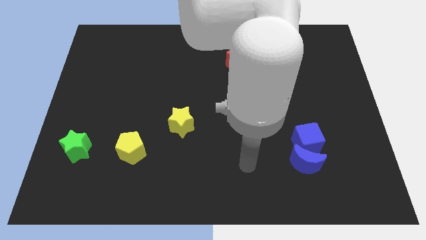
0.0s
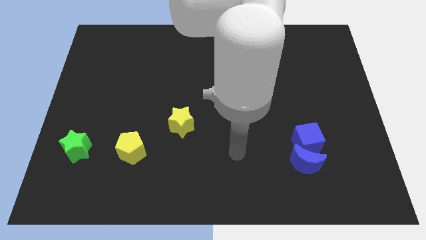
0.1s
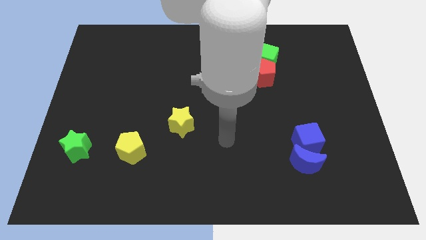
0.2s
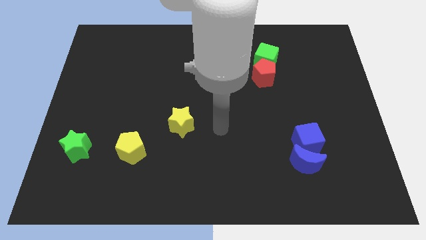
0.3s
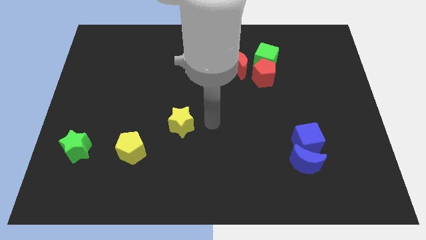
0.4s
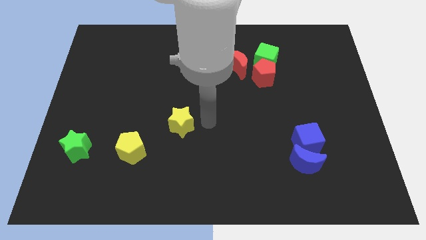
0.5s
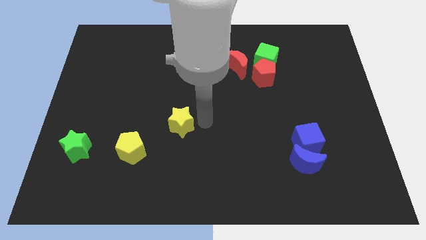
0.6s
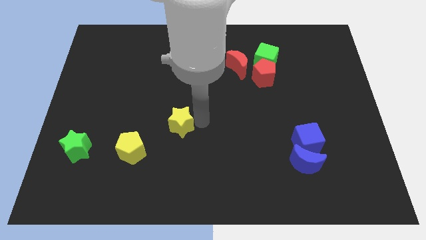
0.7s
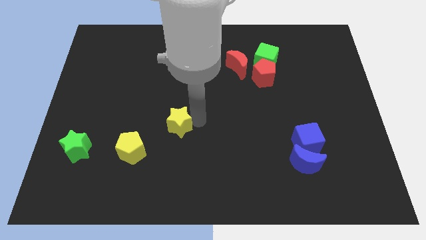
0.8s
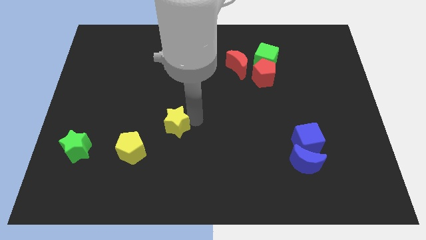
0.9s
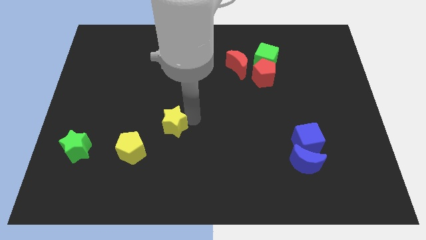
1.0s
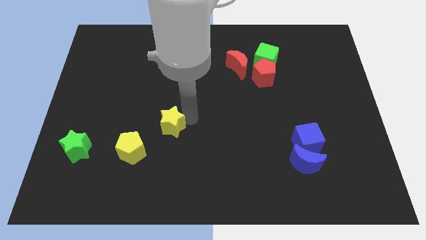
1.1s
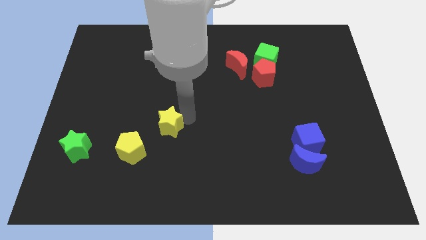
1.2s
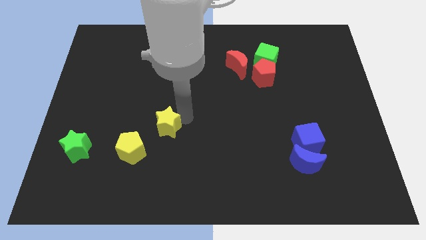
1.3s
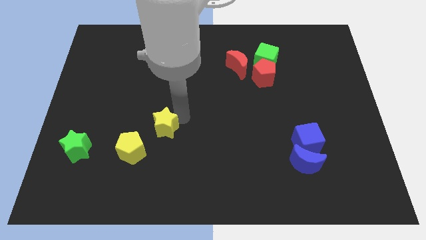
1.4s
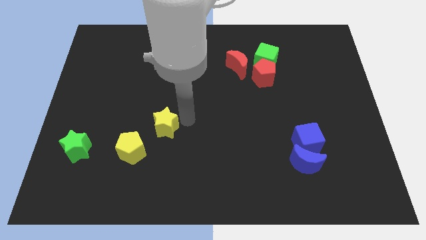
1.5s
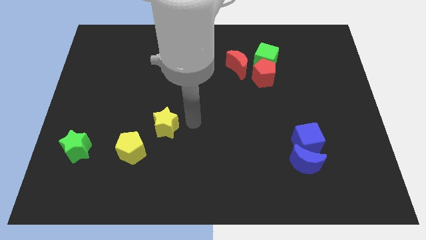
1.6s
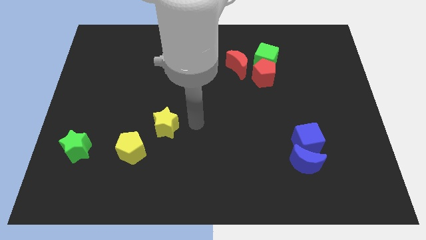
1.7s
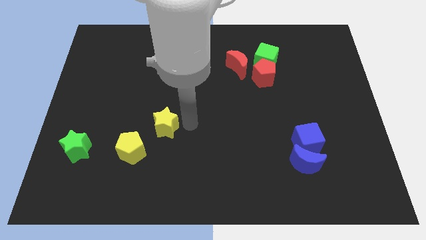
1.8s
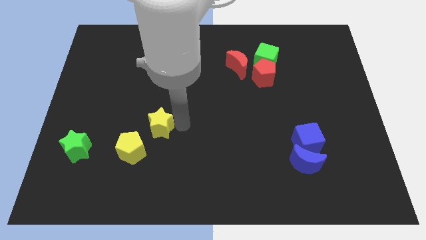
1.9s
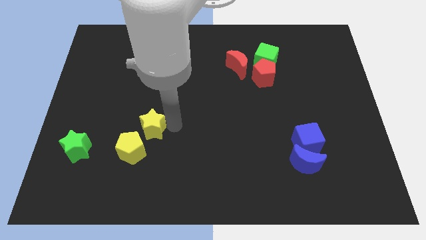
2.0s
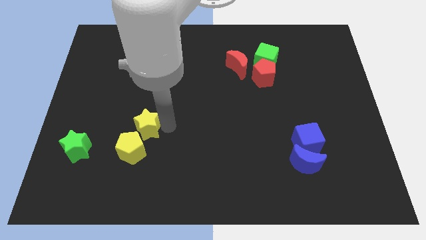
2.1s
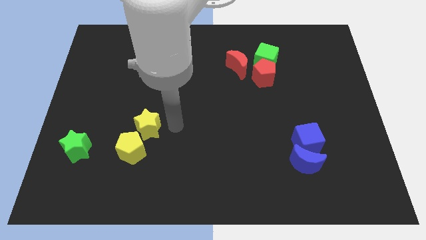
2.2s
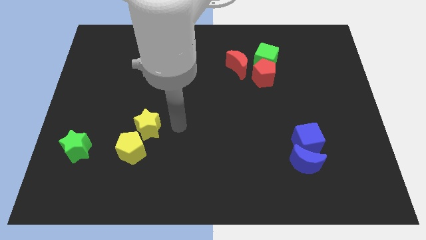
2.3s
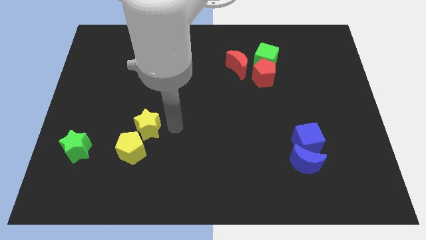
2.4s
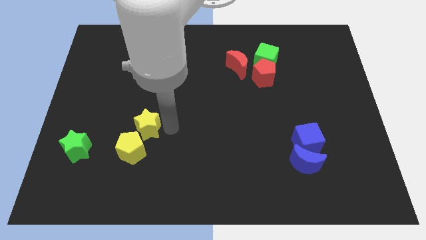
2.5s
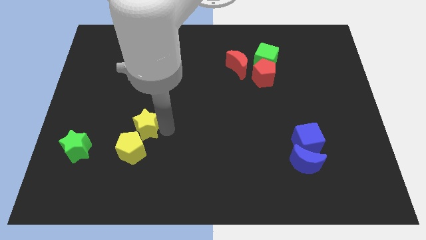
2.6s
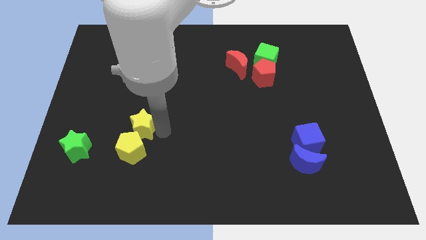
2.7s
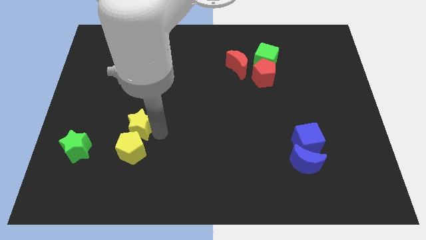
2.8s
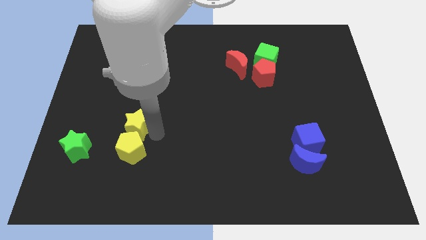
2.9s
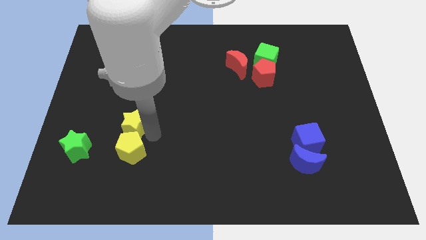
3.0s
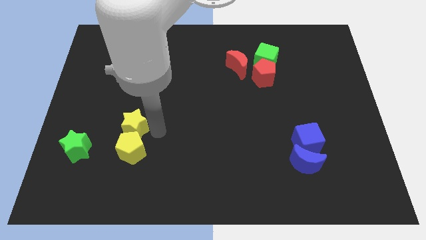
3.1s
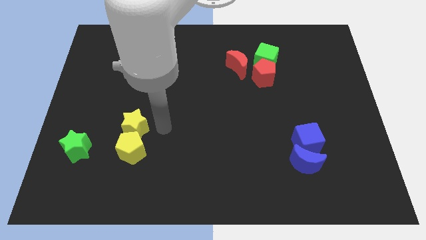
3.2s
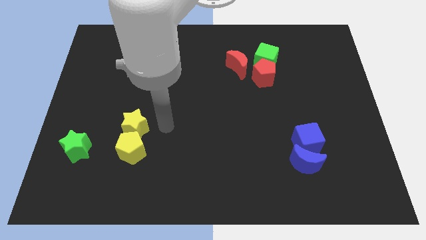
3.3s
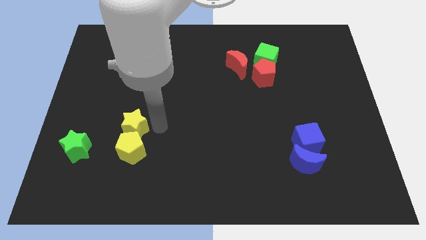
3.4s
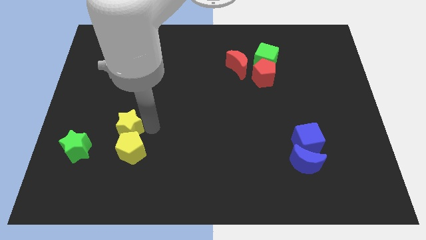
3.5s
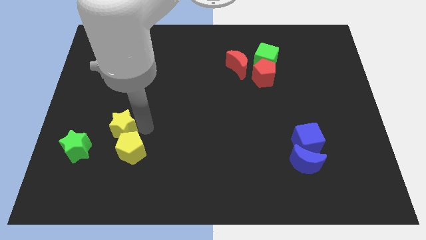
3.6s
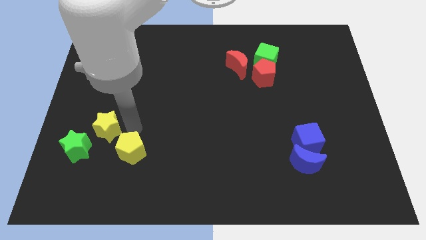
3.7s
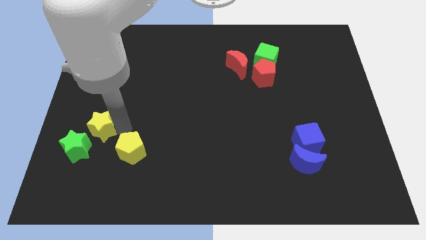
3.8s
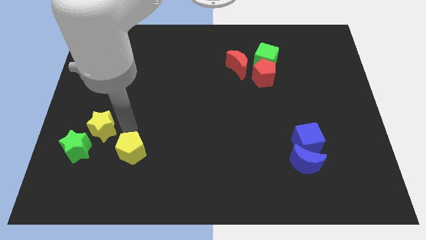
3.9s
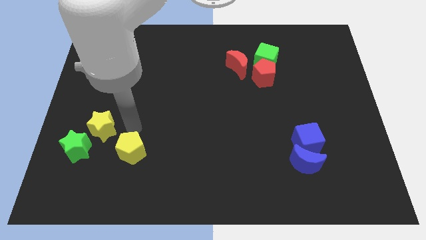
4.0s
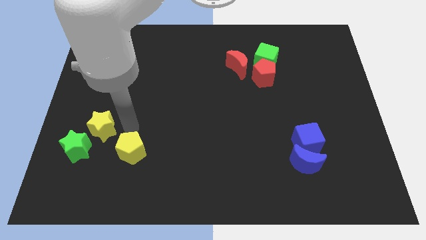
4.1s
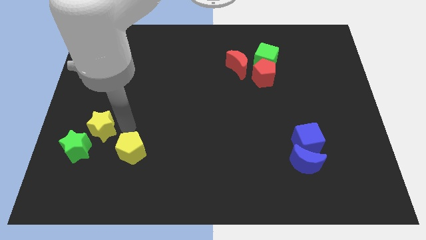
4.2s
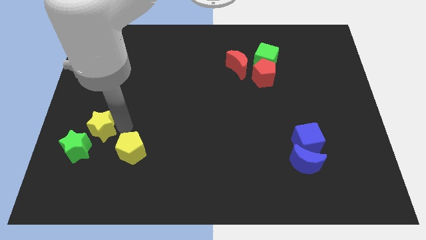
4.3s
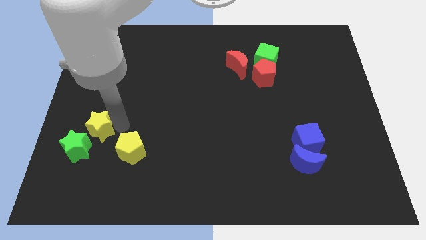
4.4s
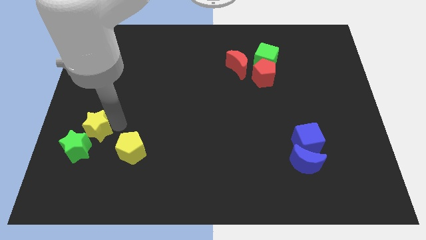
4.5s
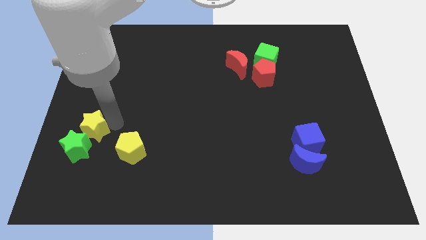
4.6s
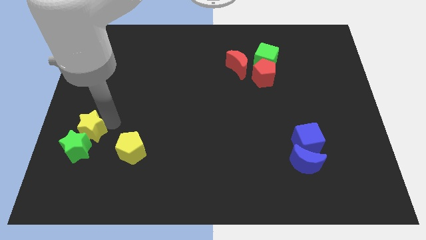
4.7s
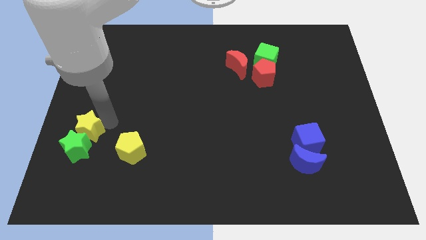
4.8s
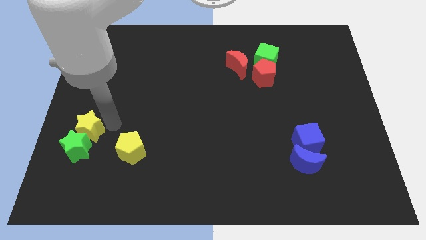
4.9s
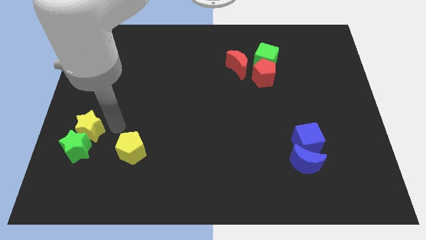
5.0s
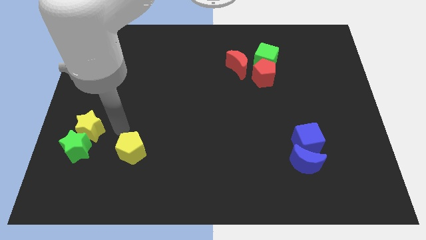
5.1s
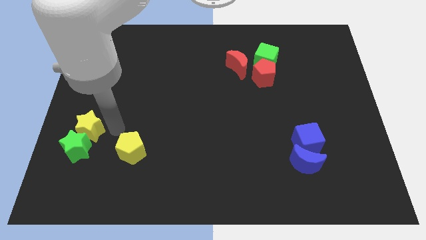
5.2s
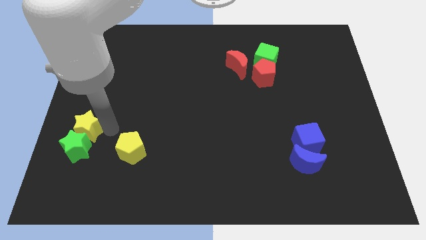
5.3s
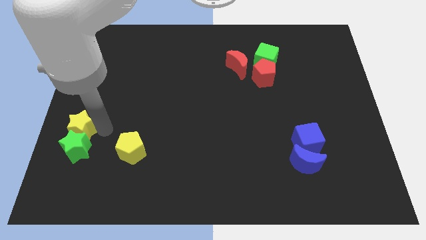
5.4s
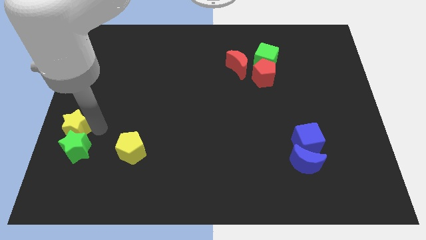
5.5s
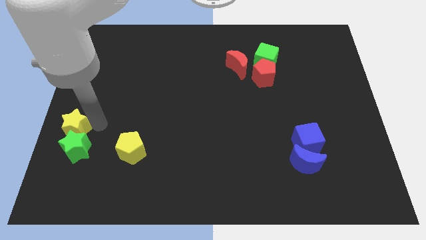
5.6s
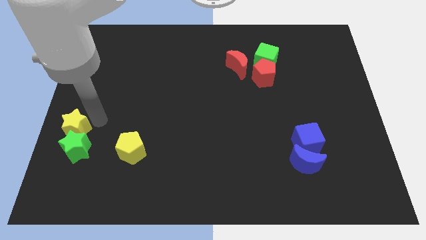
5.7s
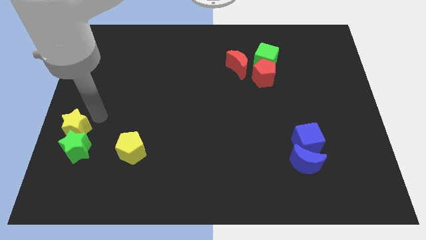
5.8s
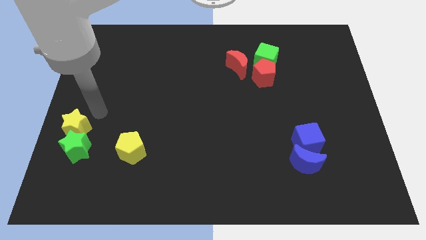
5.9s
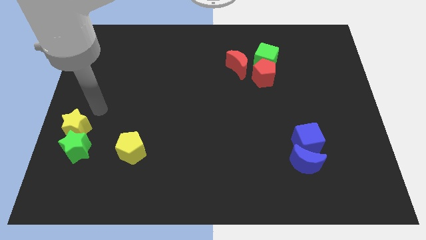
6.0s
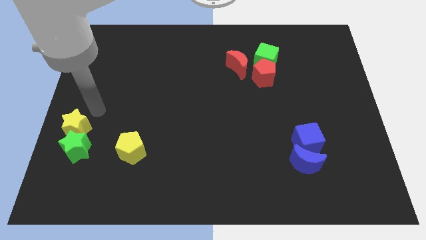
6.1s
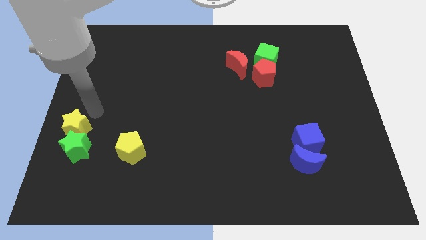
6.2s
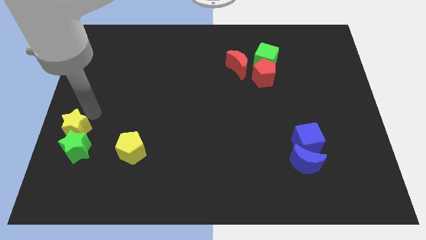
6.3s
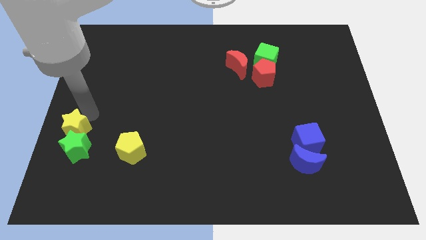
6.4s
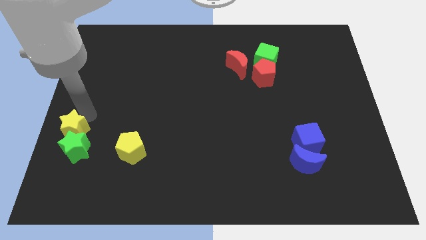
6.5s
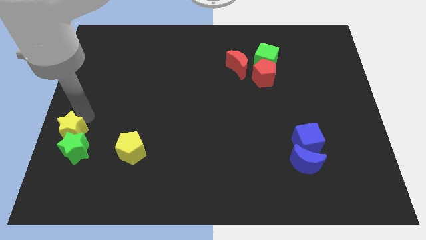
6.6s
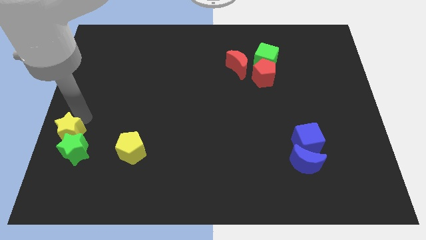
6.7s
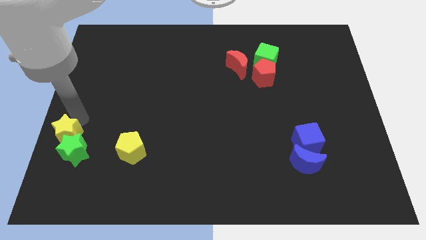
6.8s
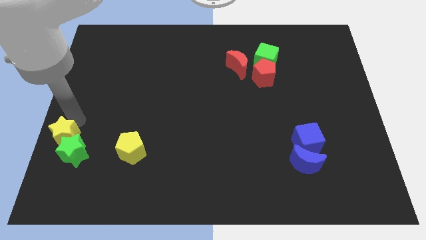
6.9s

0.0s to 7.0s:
push the yellow star just left of the yellow pentagon

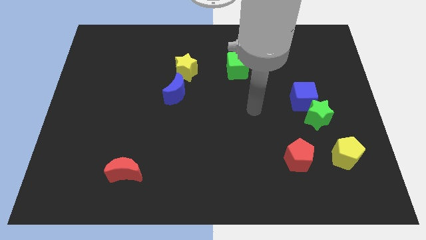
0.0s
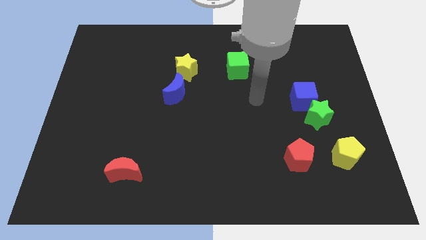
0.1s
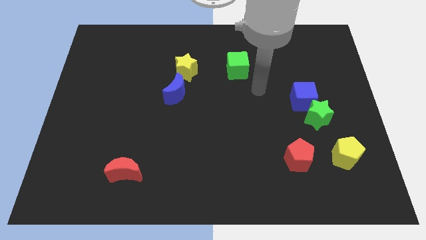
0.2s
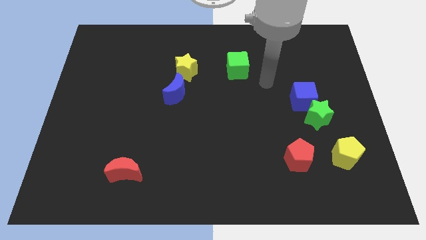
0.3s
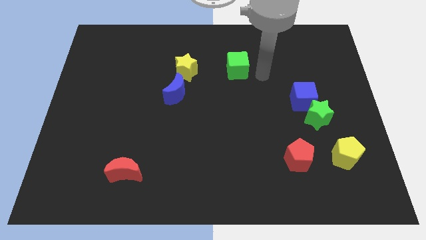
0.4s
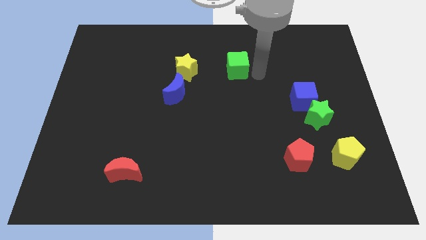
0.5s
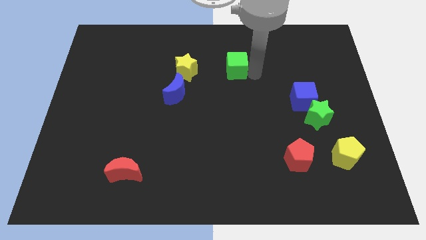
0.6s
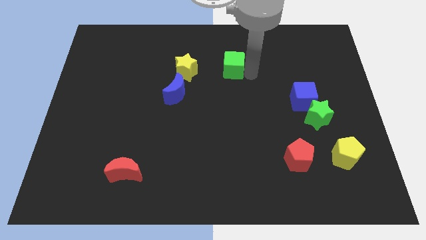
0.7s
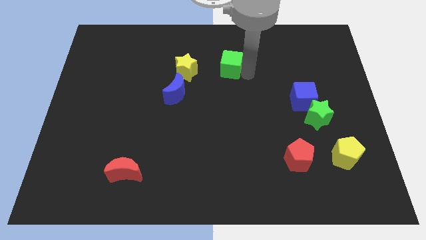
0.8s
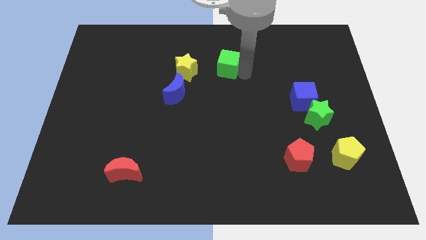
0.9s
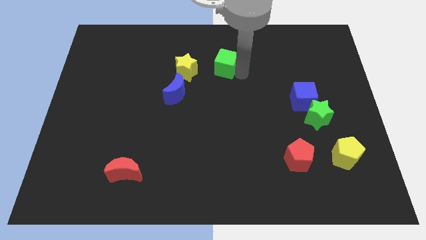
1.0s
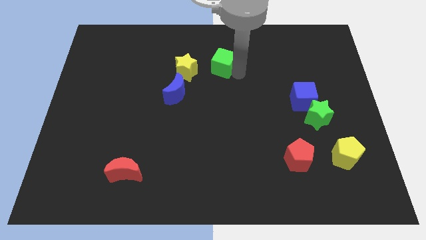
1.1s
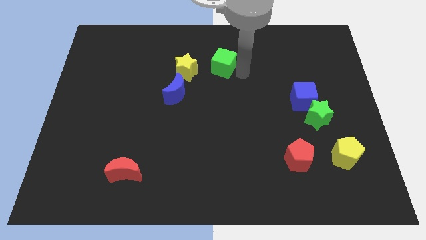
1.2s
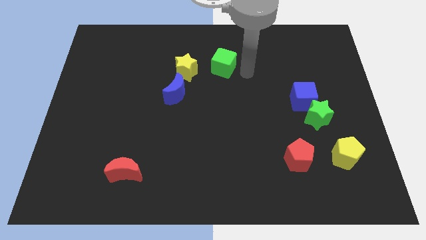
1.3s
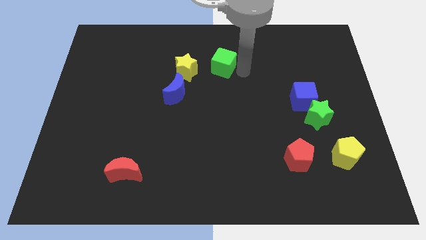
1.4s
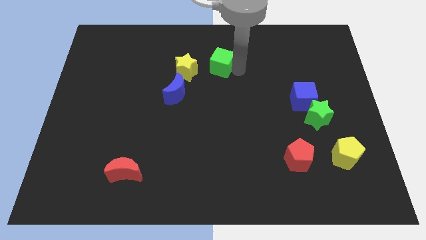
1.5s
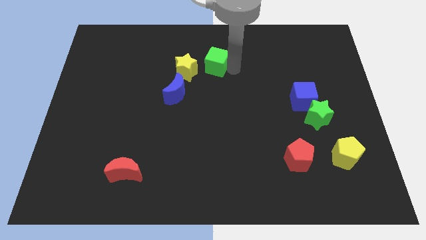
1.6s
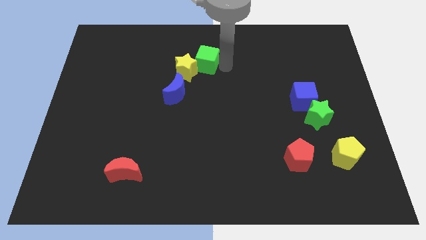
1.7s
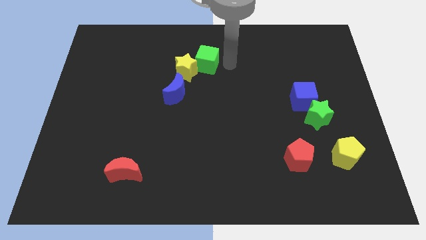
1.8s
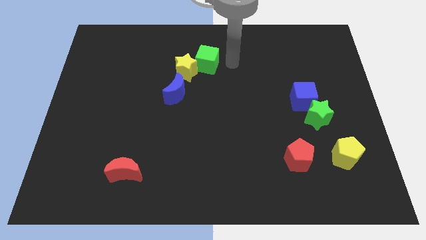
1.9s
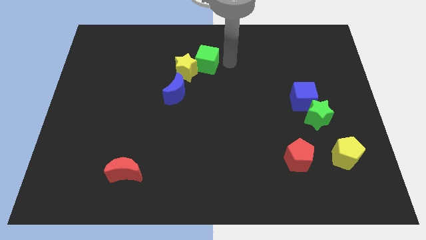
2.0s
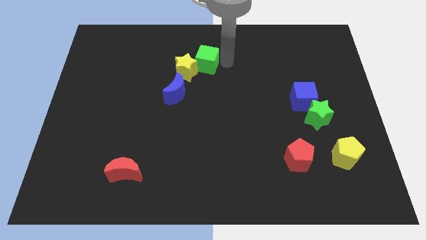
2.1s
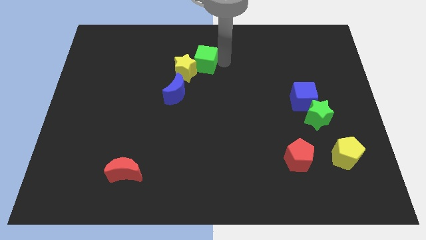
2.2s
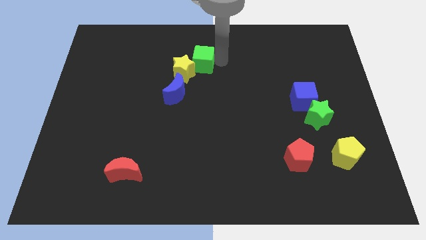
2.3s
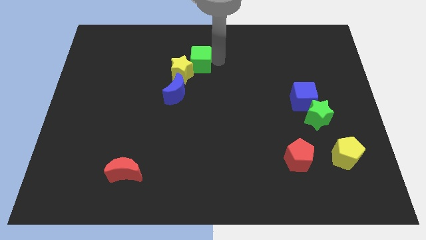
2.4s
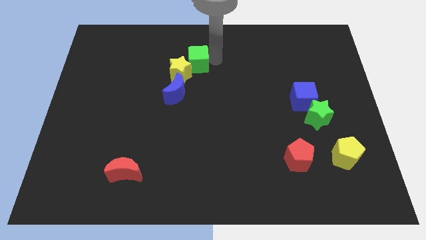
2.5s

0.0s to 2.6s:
push the green cube to the top of the blue moon
